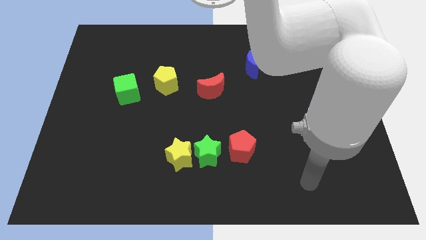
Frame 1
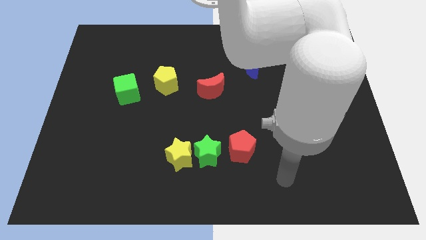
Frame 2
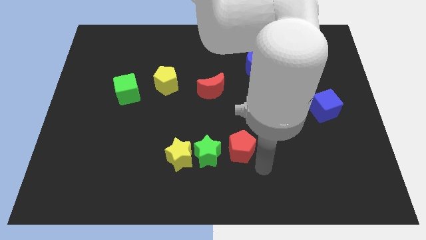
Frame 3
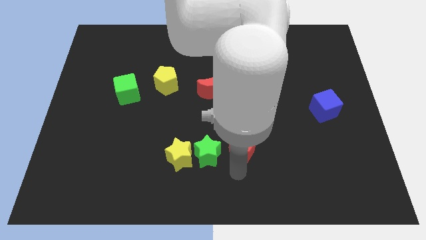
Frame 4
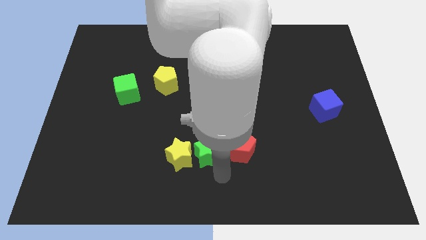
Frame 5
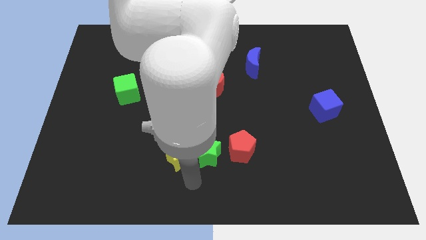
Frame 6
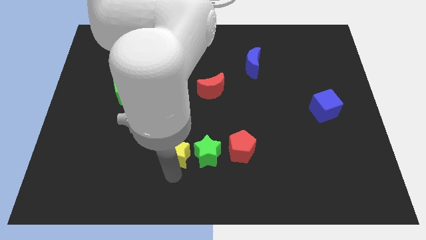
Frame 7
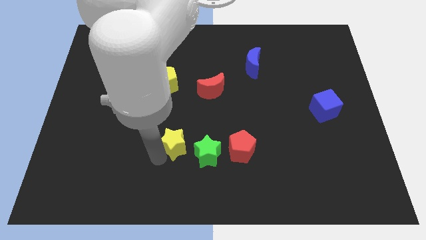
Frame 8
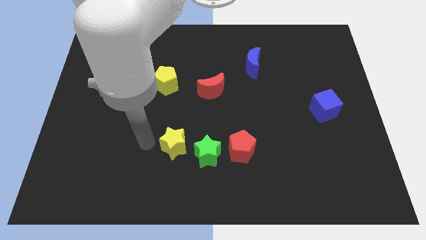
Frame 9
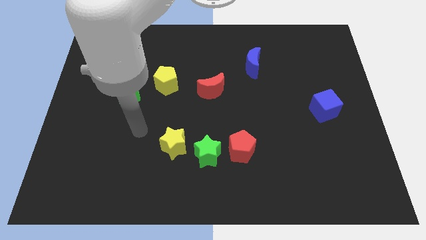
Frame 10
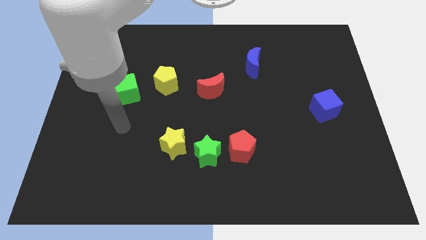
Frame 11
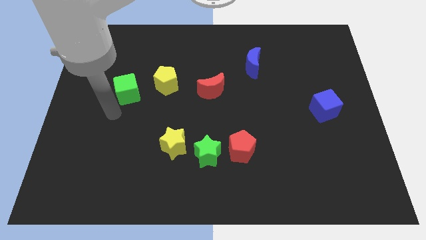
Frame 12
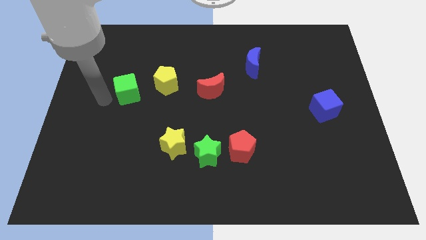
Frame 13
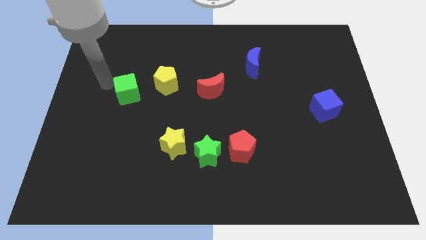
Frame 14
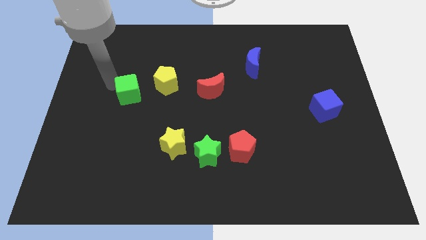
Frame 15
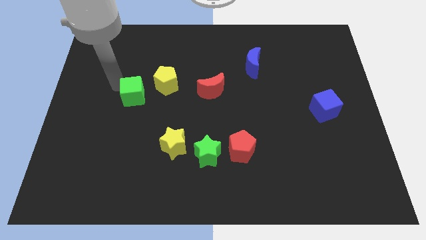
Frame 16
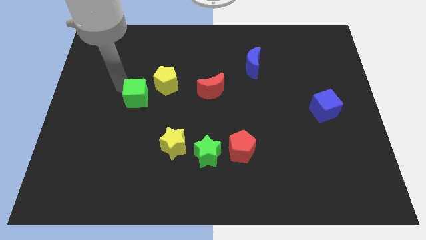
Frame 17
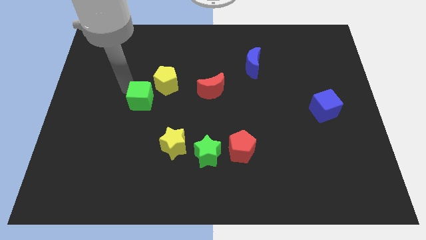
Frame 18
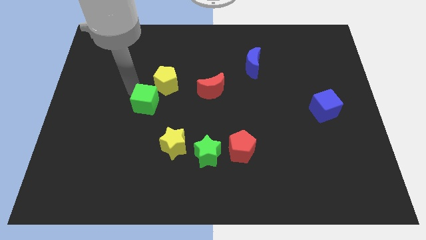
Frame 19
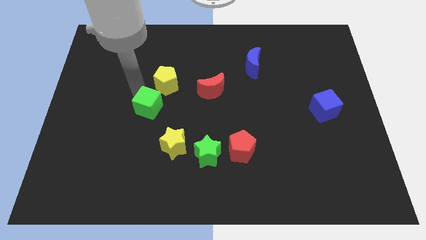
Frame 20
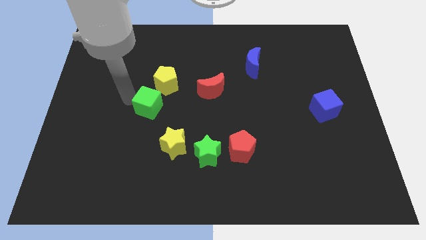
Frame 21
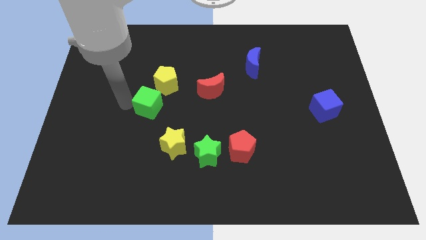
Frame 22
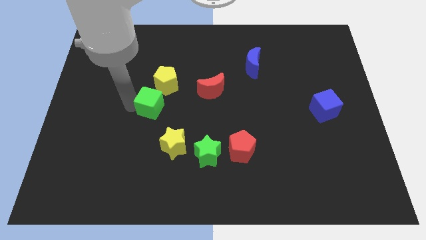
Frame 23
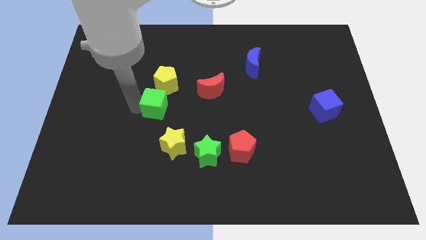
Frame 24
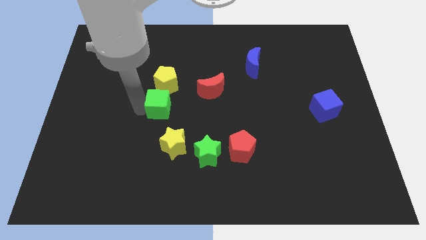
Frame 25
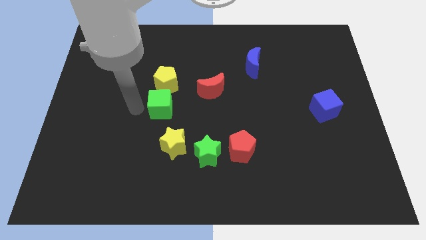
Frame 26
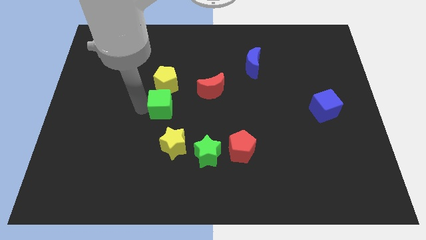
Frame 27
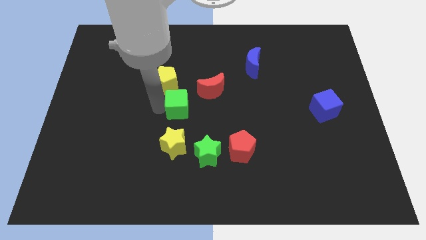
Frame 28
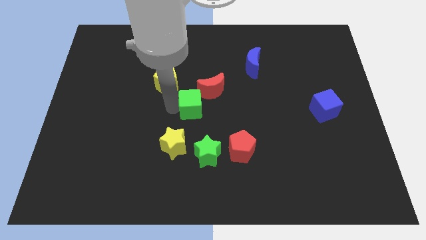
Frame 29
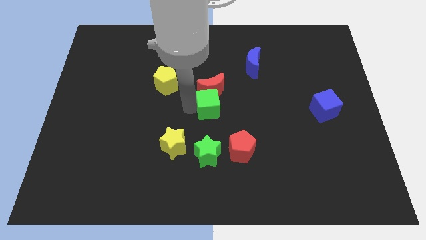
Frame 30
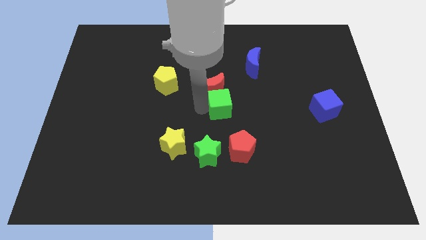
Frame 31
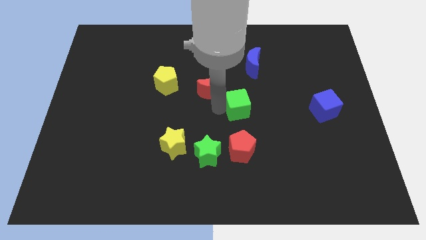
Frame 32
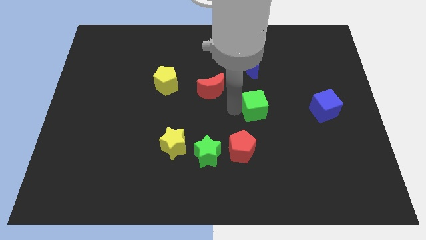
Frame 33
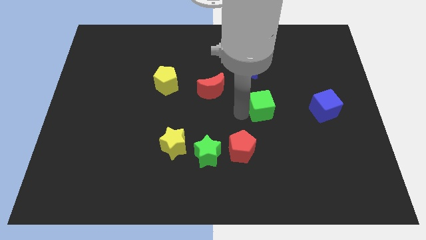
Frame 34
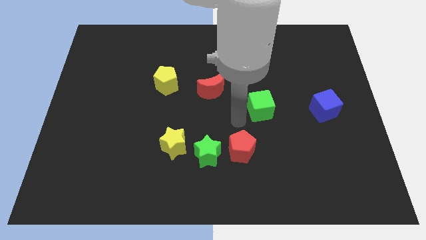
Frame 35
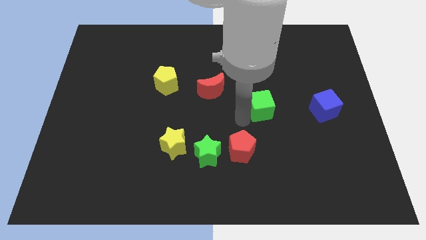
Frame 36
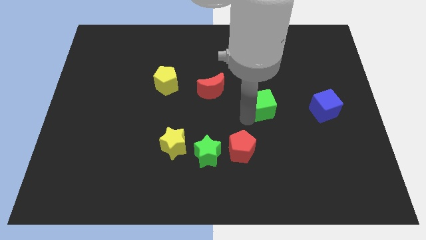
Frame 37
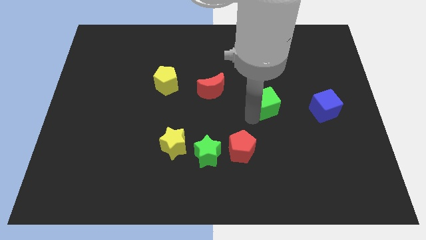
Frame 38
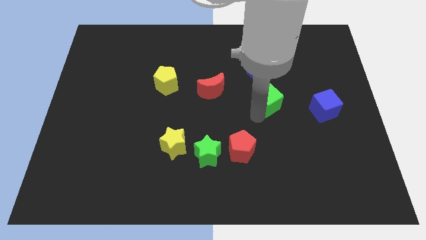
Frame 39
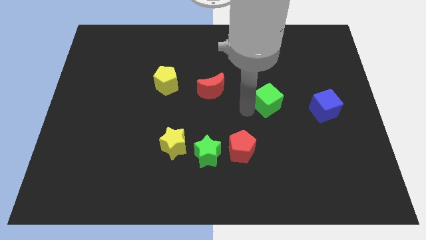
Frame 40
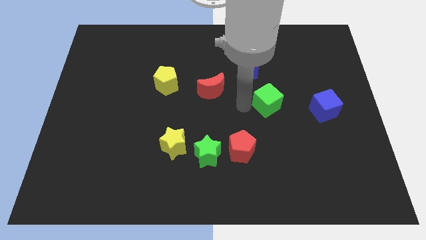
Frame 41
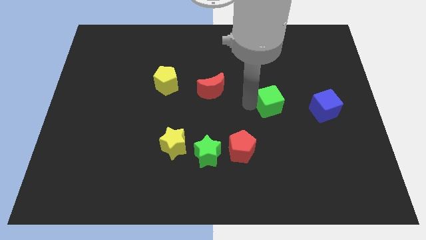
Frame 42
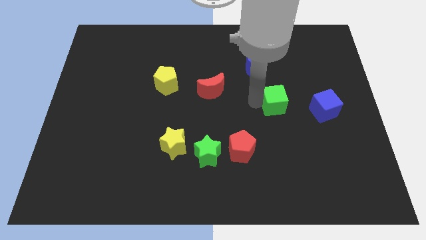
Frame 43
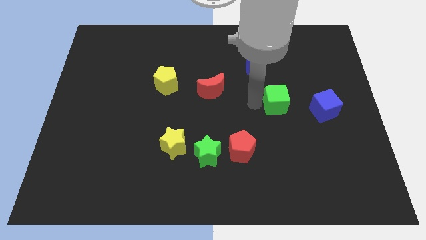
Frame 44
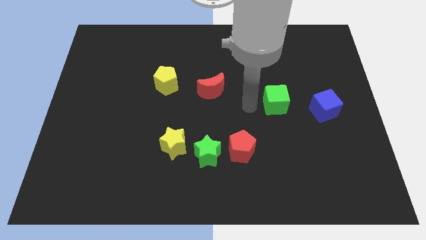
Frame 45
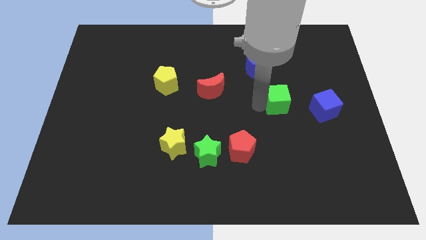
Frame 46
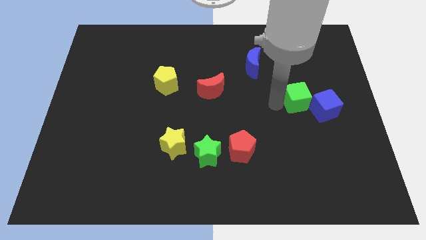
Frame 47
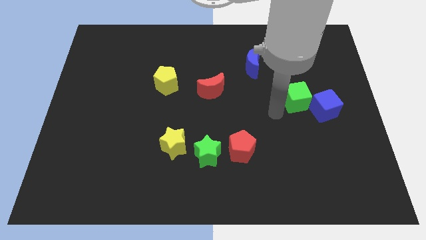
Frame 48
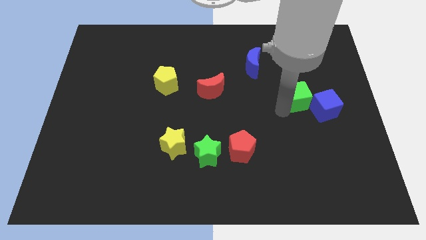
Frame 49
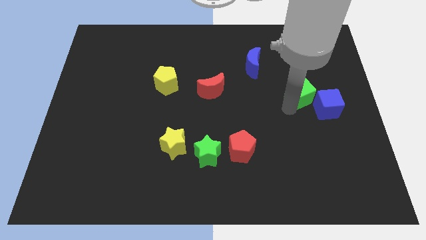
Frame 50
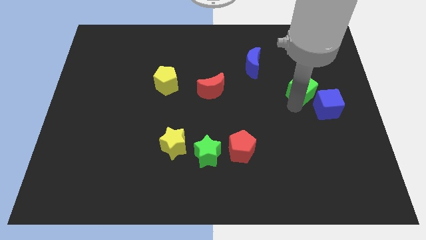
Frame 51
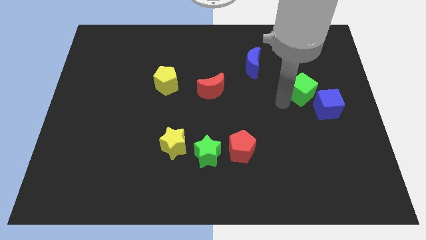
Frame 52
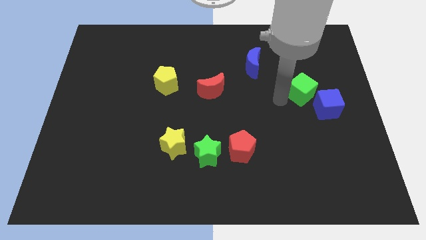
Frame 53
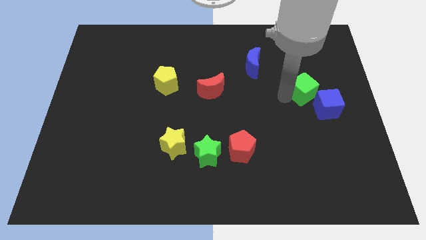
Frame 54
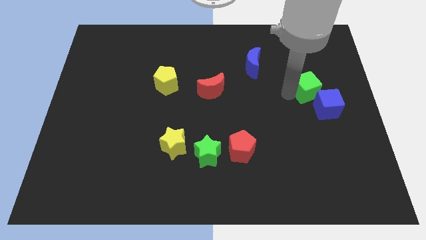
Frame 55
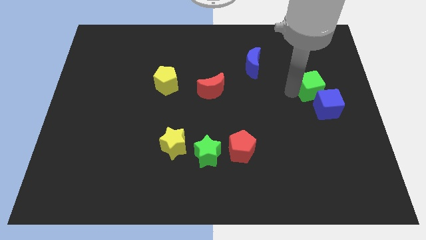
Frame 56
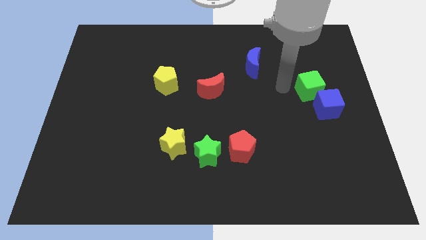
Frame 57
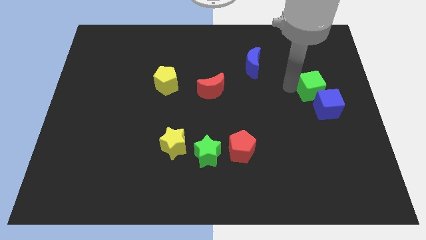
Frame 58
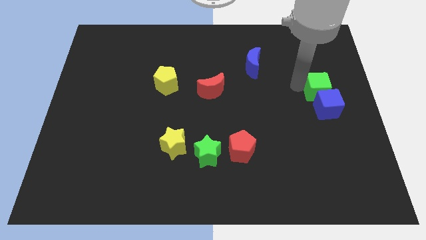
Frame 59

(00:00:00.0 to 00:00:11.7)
slide the green cube to the right side of the board
